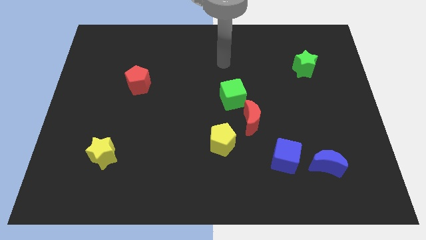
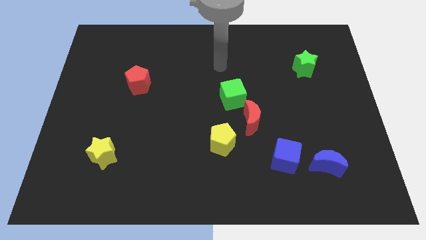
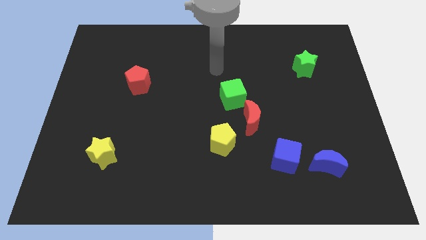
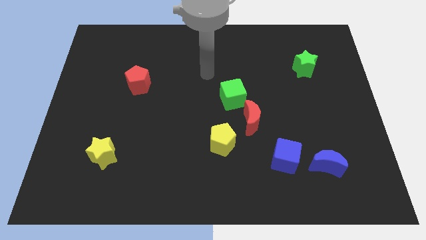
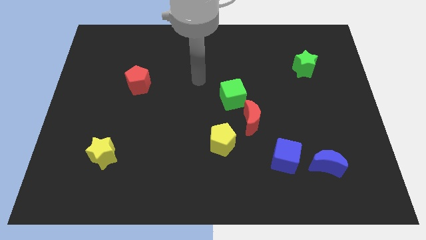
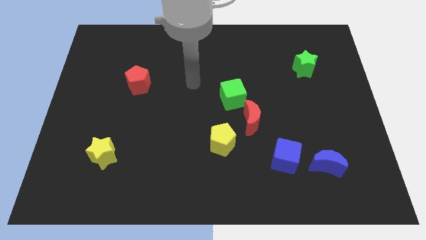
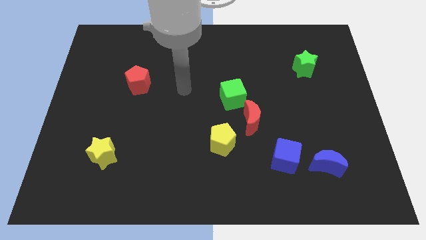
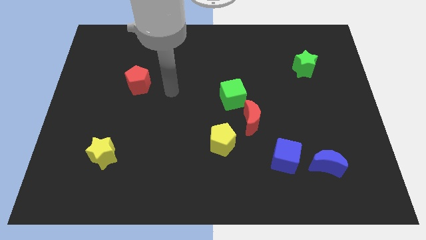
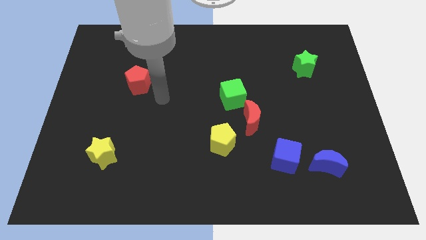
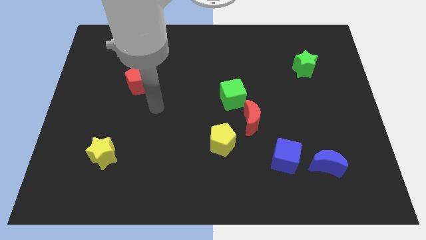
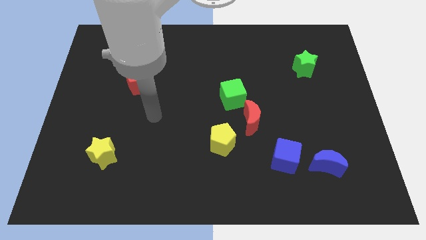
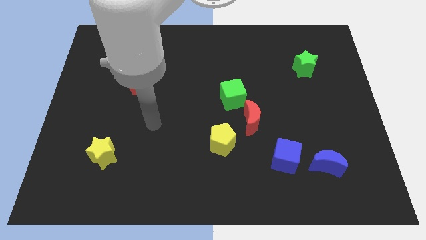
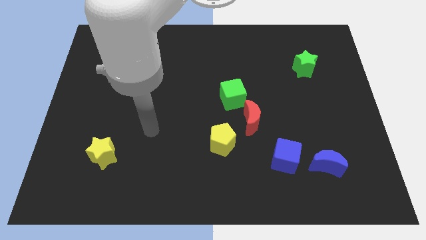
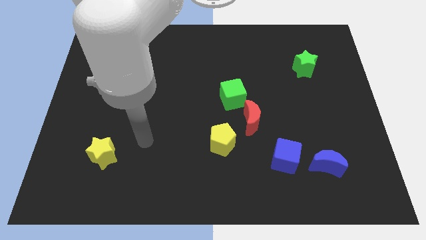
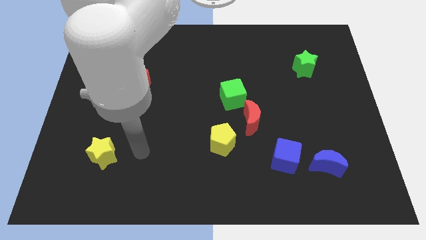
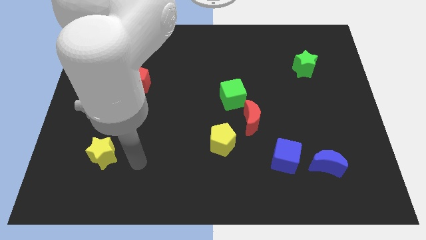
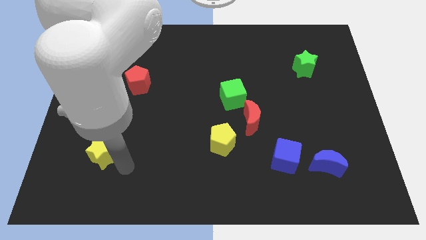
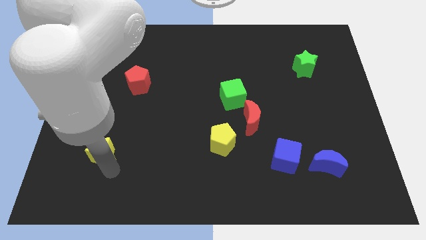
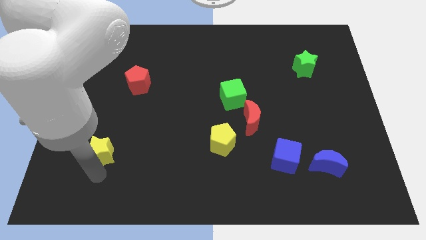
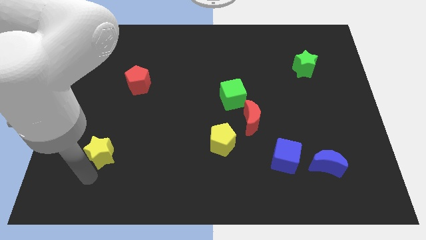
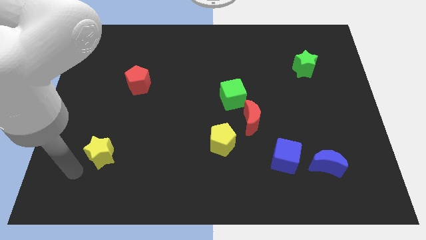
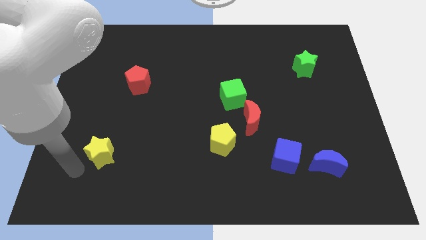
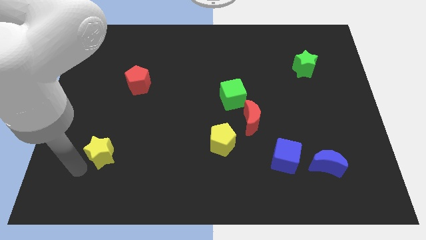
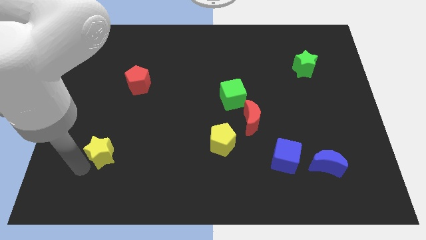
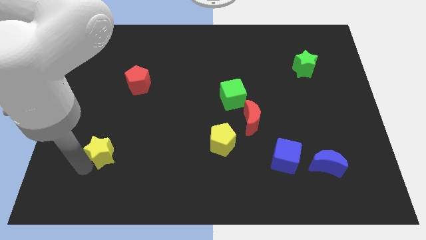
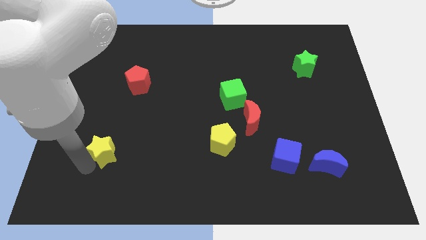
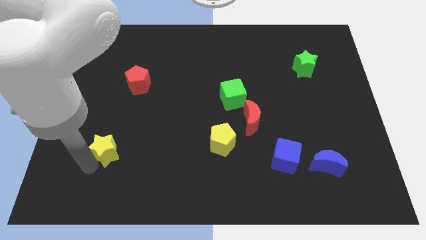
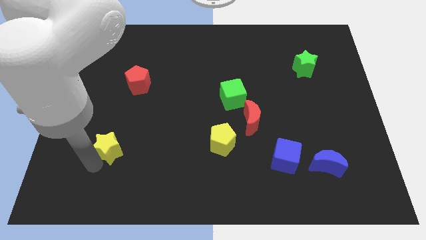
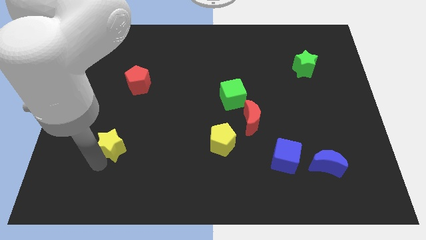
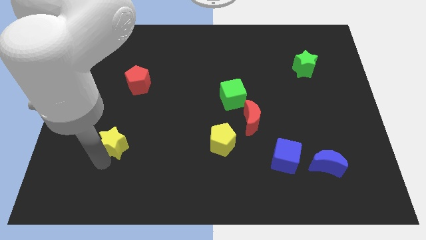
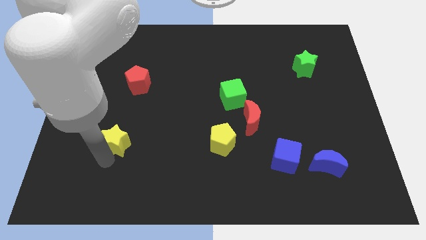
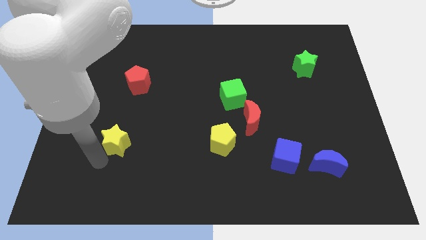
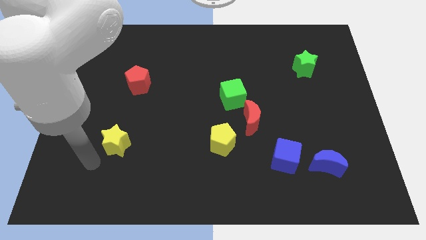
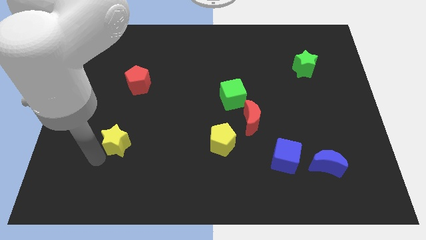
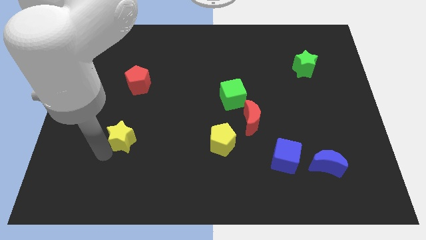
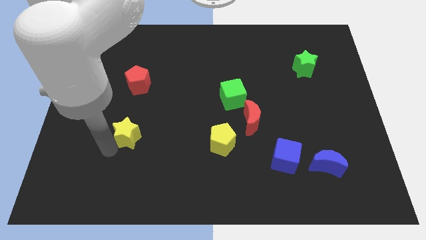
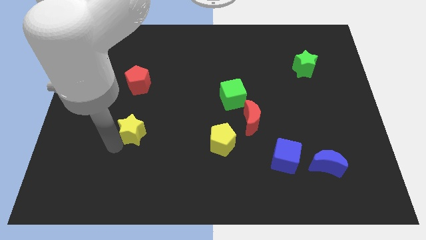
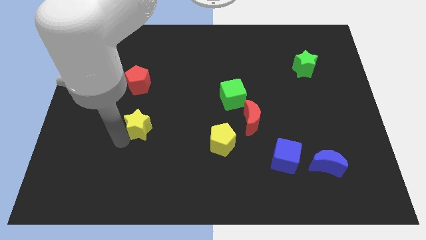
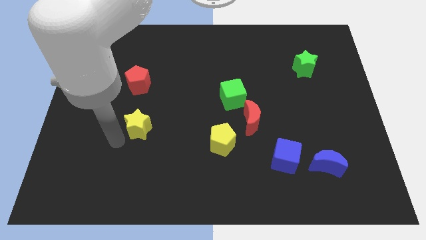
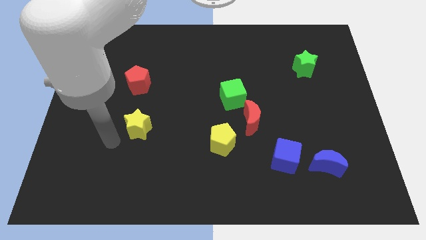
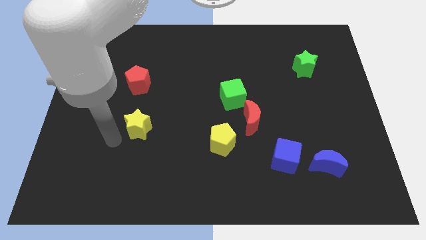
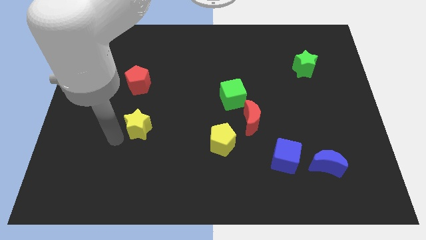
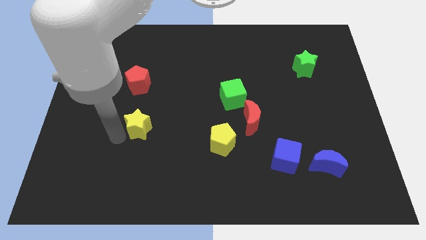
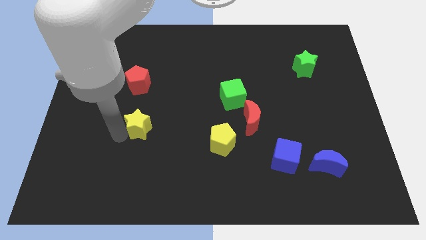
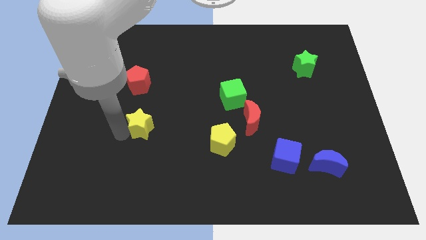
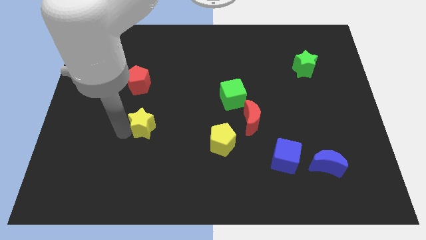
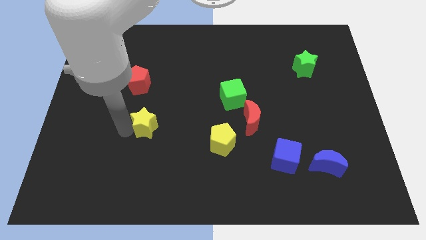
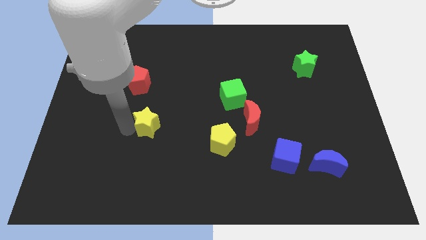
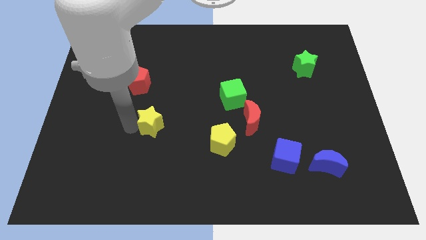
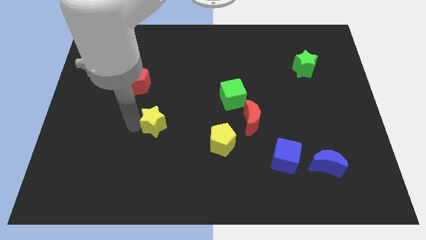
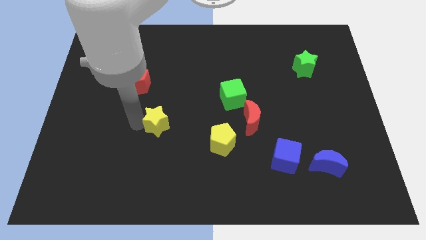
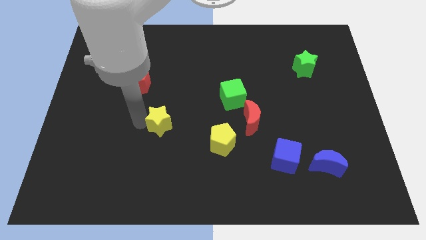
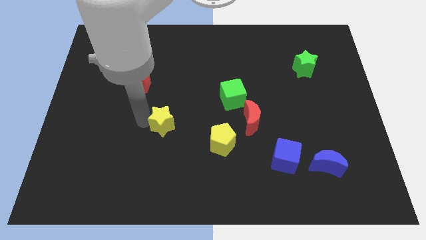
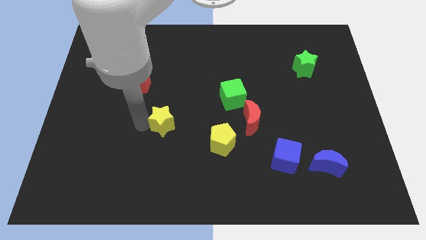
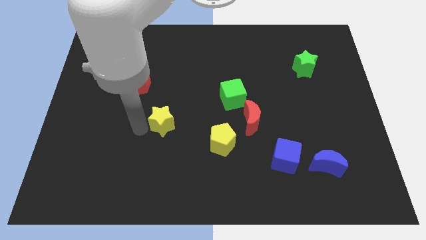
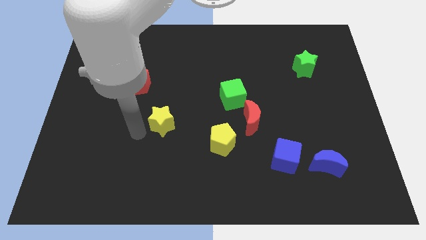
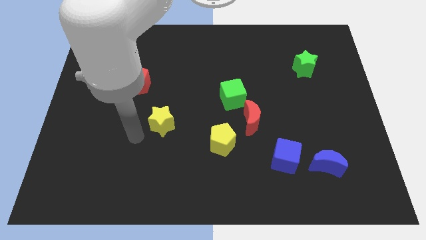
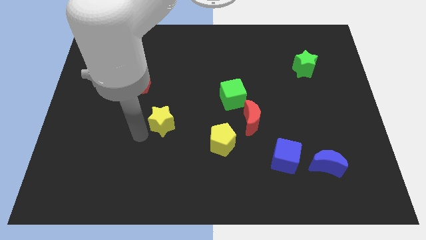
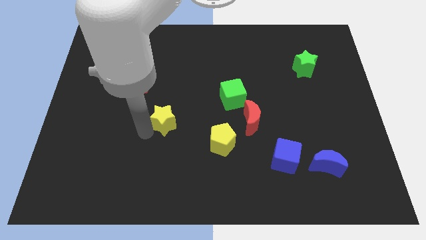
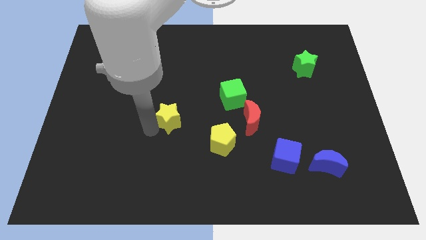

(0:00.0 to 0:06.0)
push the yellow star to the middle
